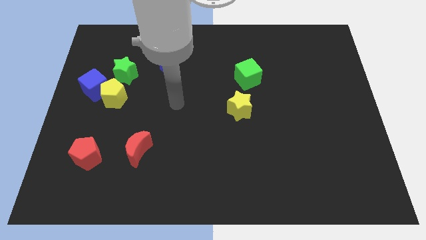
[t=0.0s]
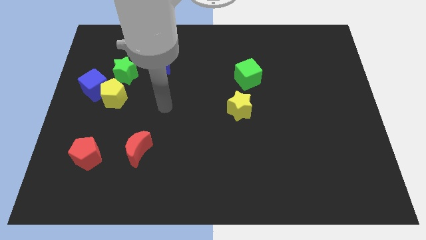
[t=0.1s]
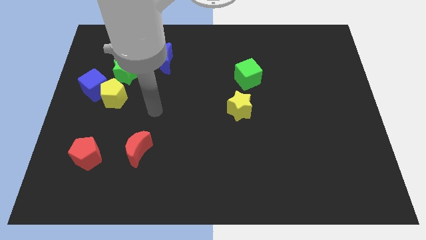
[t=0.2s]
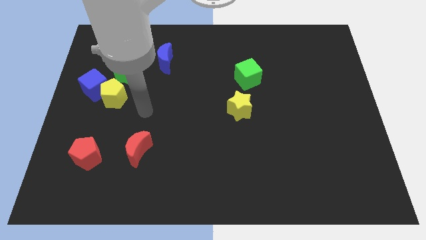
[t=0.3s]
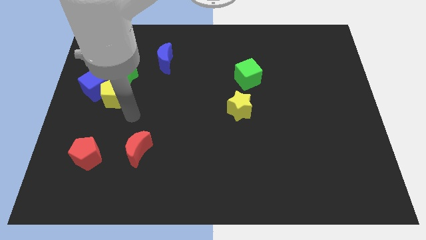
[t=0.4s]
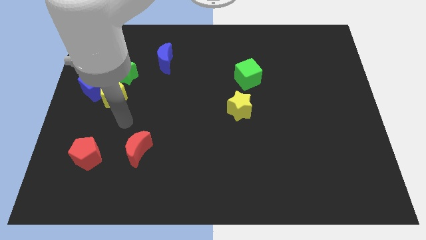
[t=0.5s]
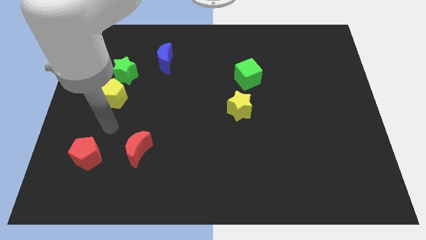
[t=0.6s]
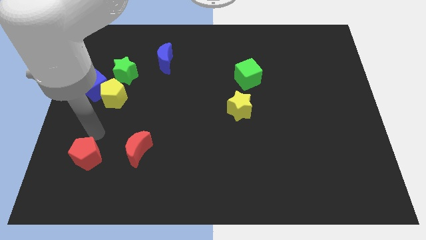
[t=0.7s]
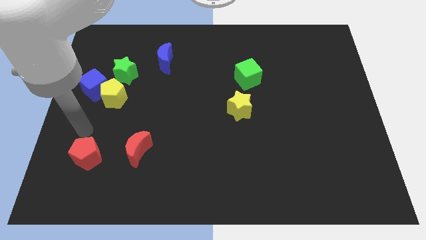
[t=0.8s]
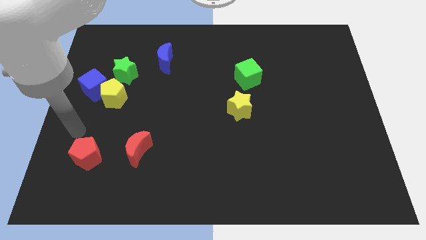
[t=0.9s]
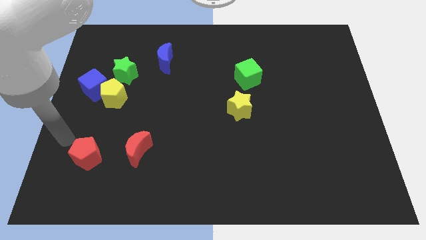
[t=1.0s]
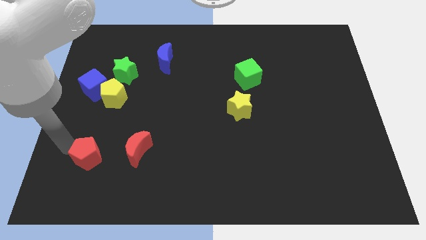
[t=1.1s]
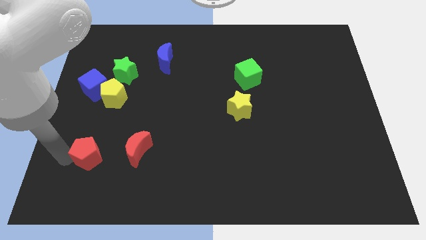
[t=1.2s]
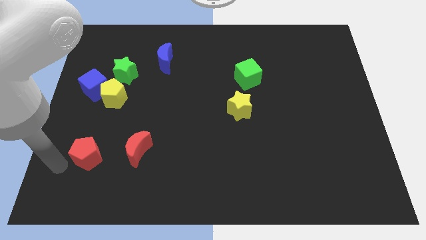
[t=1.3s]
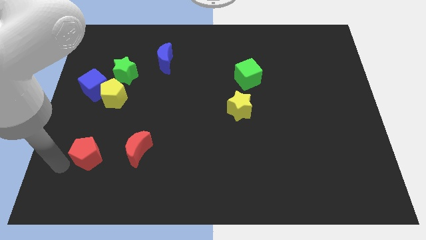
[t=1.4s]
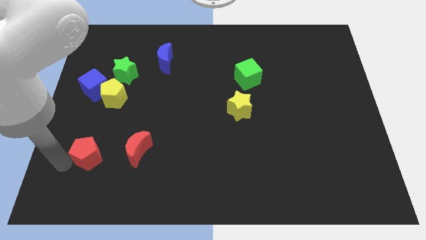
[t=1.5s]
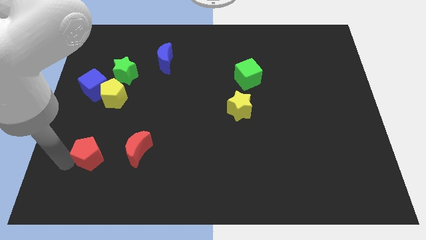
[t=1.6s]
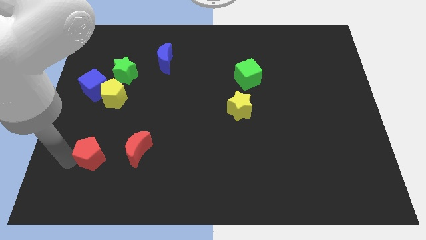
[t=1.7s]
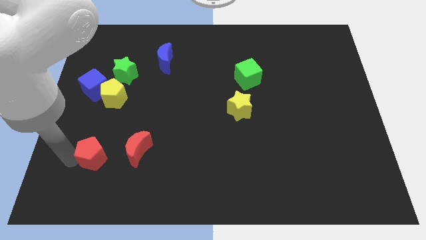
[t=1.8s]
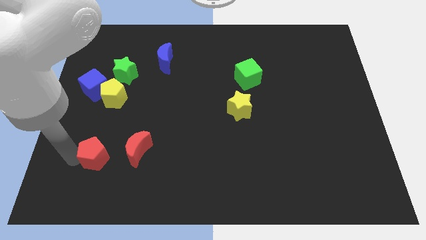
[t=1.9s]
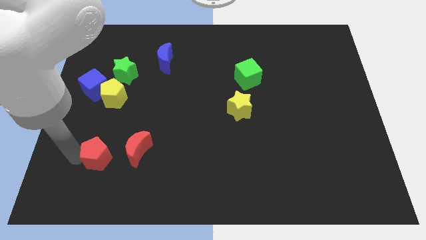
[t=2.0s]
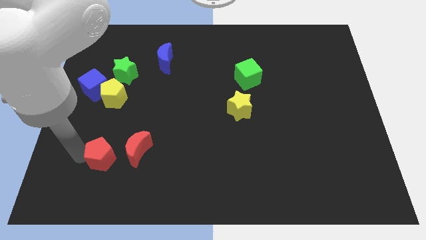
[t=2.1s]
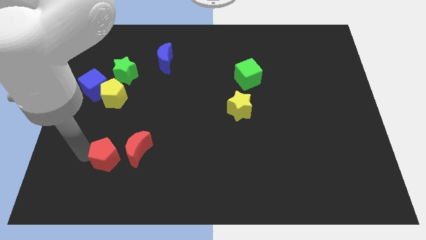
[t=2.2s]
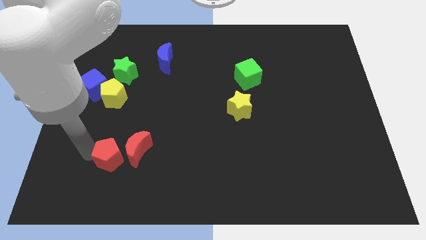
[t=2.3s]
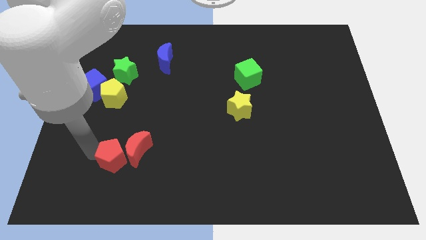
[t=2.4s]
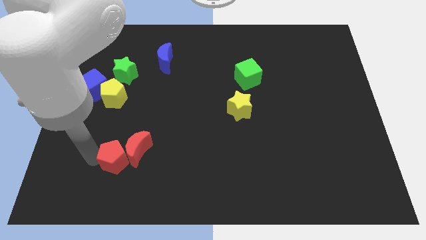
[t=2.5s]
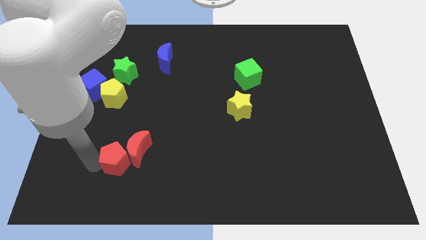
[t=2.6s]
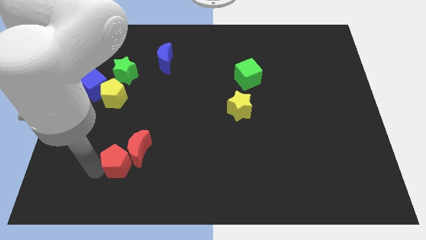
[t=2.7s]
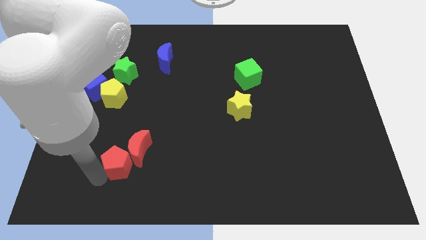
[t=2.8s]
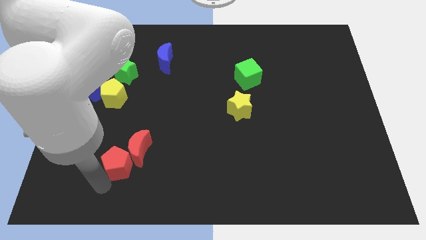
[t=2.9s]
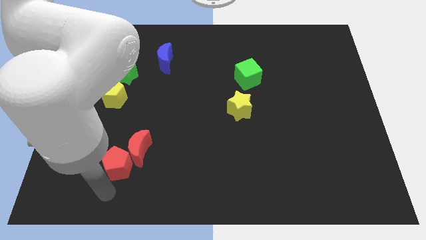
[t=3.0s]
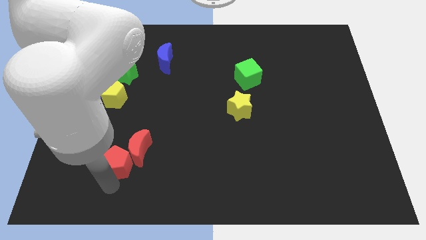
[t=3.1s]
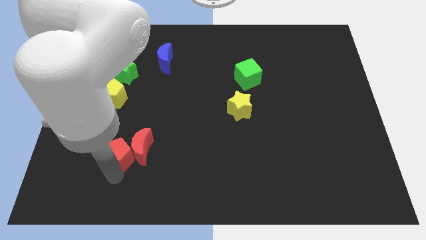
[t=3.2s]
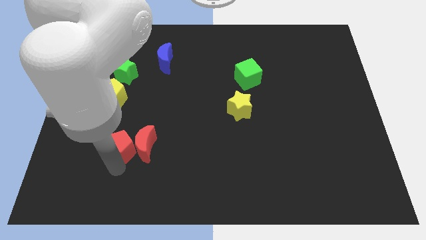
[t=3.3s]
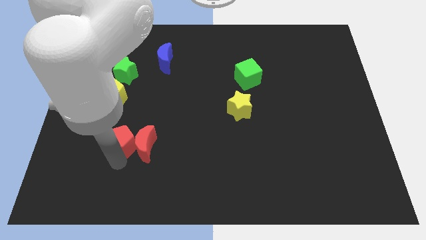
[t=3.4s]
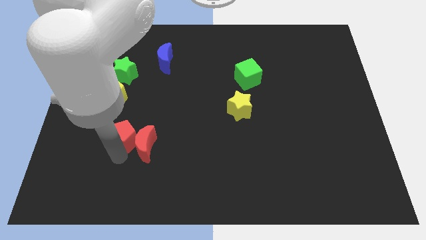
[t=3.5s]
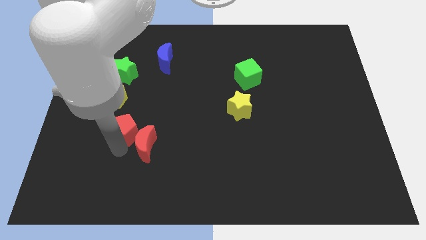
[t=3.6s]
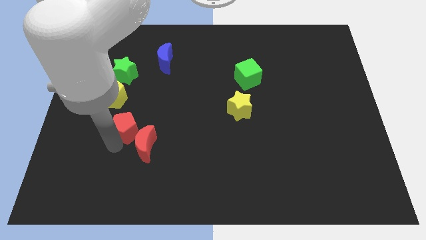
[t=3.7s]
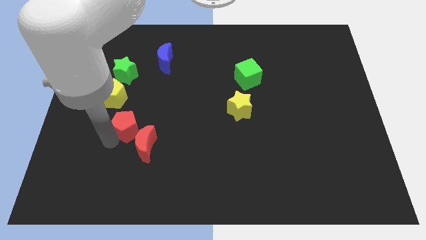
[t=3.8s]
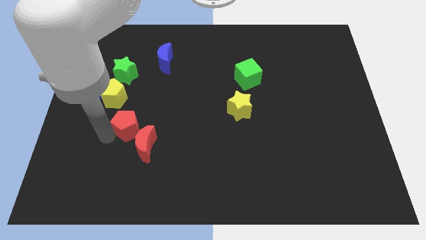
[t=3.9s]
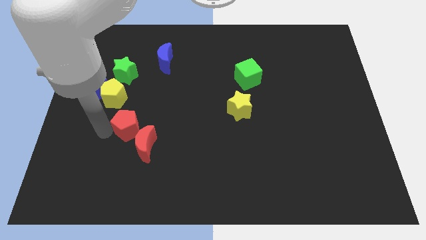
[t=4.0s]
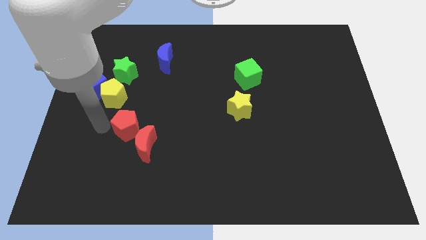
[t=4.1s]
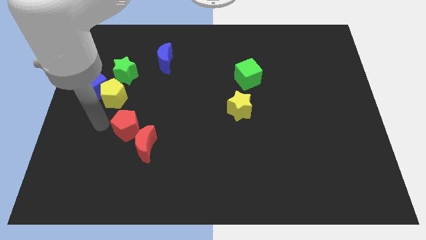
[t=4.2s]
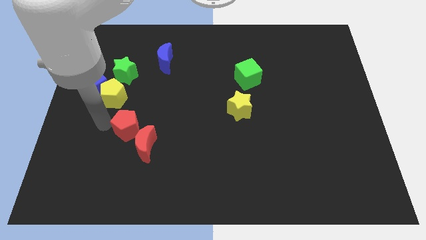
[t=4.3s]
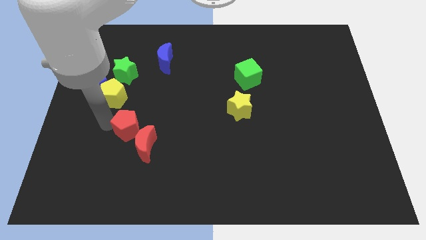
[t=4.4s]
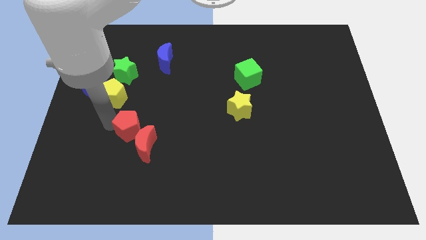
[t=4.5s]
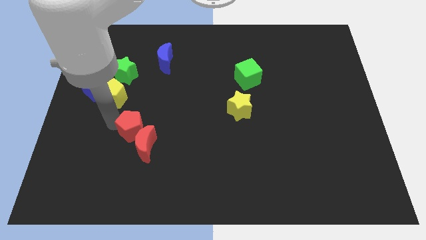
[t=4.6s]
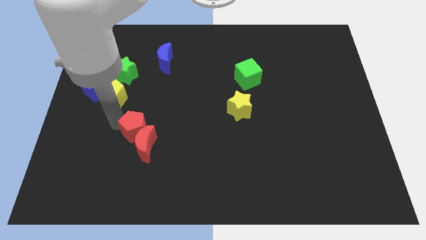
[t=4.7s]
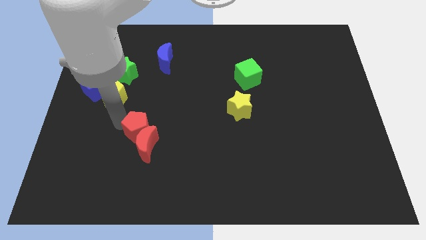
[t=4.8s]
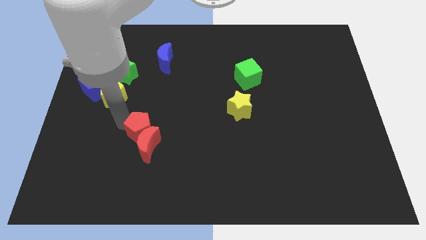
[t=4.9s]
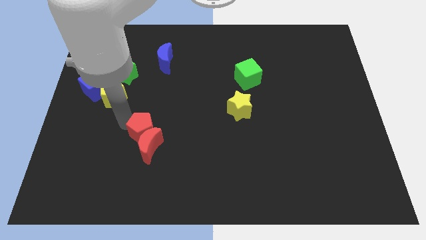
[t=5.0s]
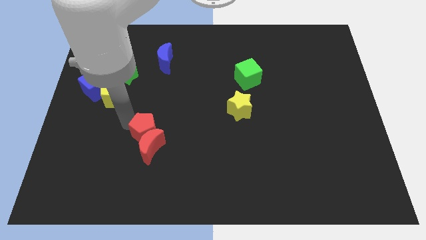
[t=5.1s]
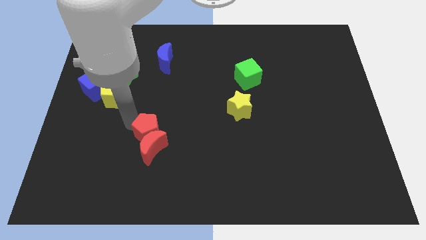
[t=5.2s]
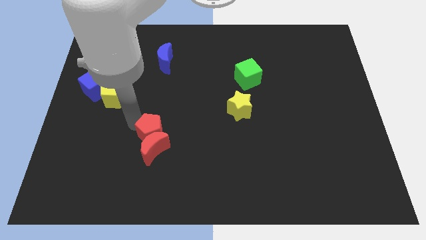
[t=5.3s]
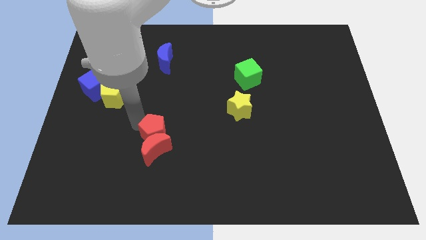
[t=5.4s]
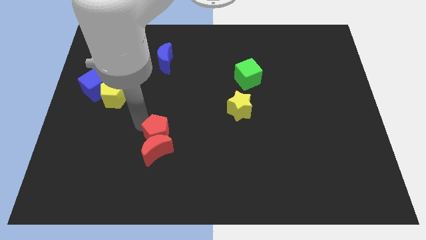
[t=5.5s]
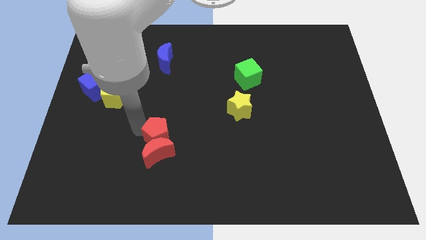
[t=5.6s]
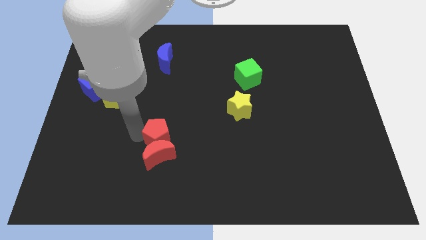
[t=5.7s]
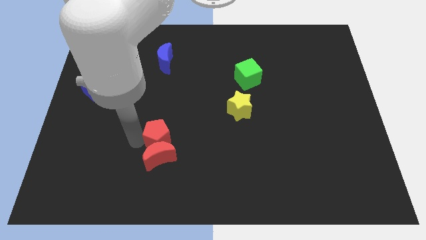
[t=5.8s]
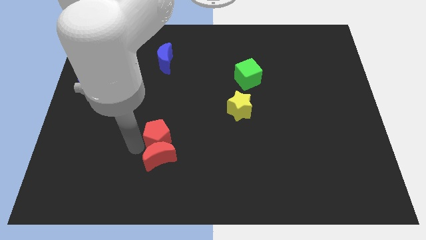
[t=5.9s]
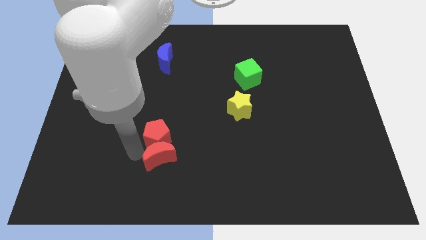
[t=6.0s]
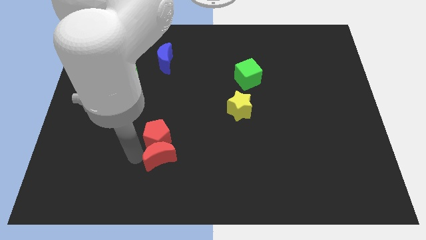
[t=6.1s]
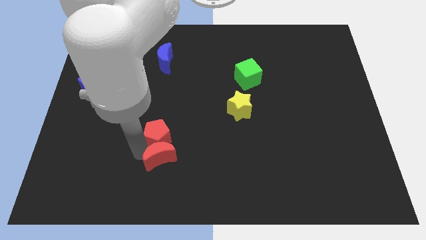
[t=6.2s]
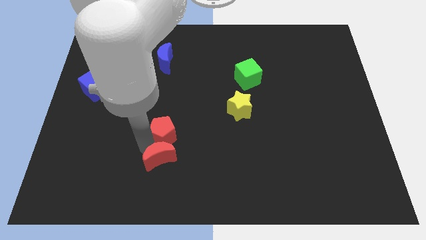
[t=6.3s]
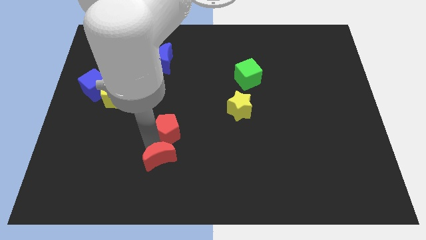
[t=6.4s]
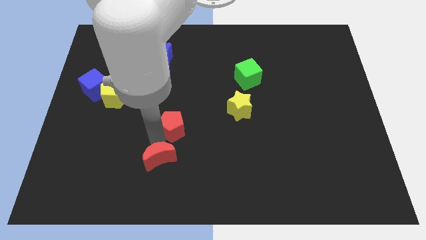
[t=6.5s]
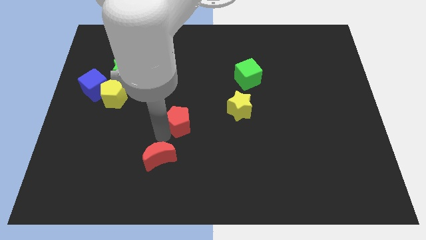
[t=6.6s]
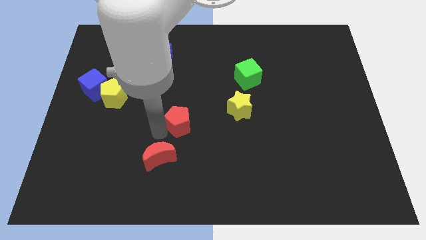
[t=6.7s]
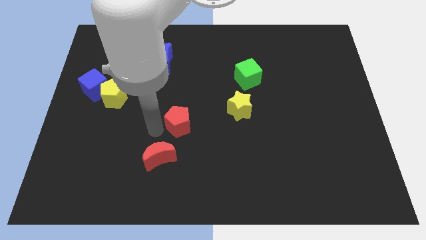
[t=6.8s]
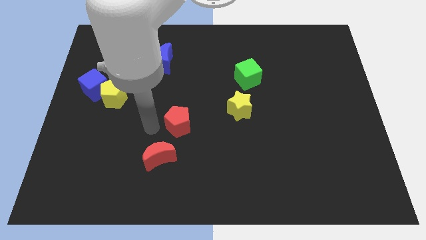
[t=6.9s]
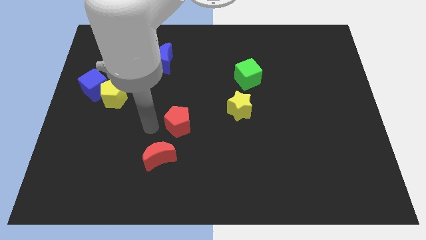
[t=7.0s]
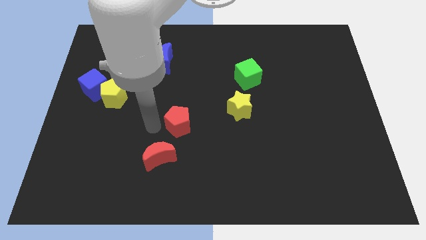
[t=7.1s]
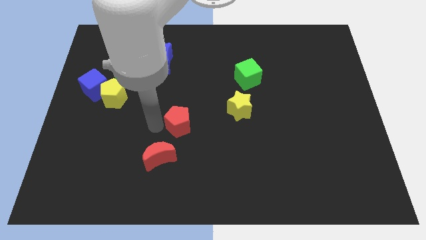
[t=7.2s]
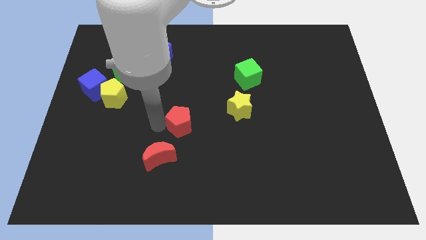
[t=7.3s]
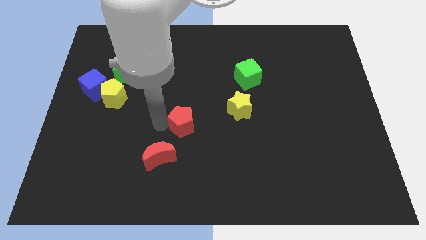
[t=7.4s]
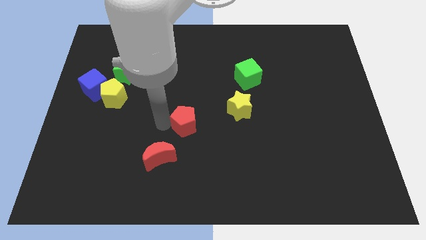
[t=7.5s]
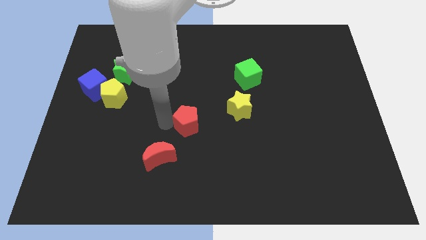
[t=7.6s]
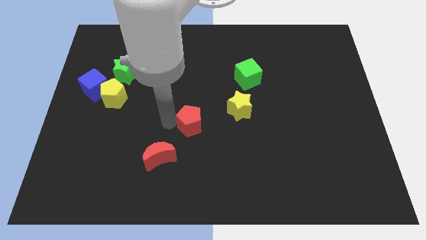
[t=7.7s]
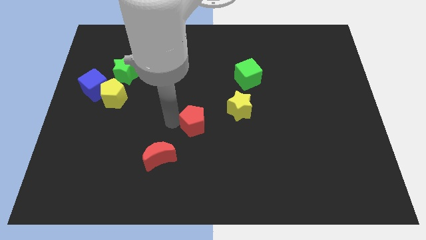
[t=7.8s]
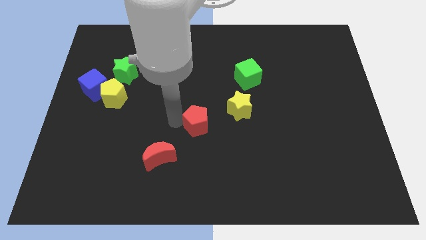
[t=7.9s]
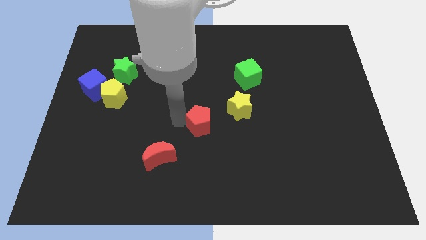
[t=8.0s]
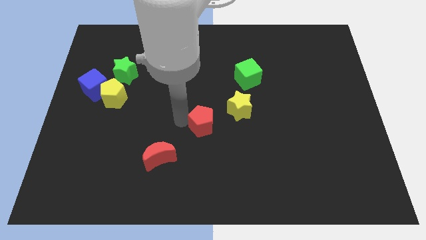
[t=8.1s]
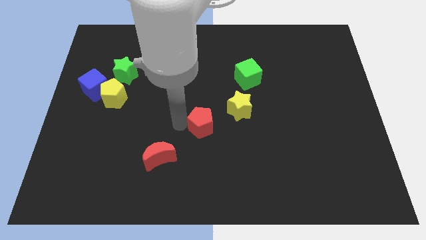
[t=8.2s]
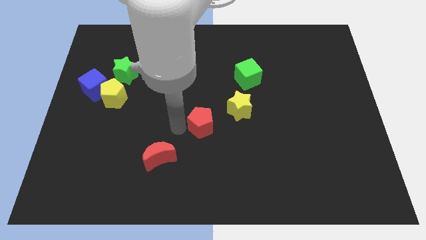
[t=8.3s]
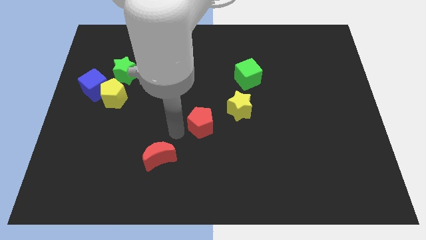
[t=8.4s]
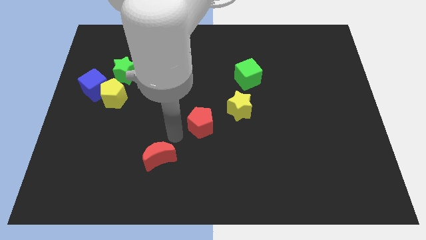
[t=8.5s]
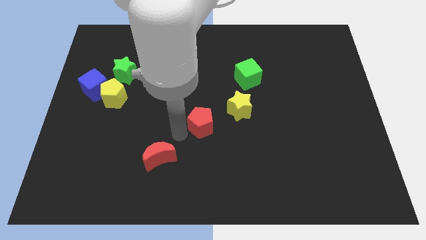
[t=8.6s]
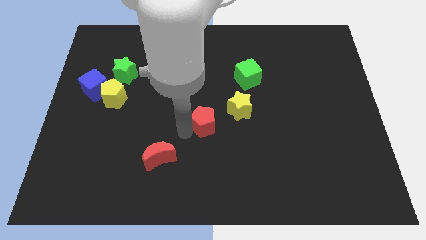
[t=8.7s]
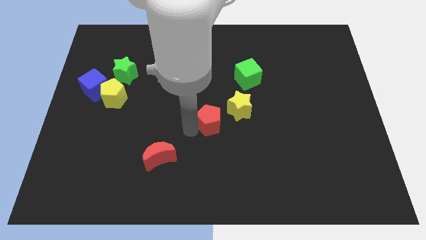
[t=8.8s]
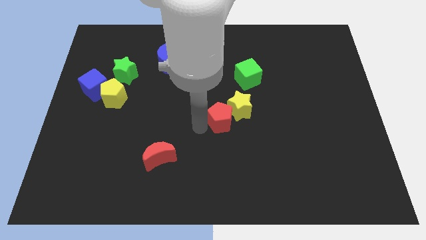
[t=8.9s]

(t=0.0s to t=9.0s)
push the red pentagon next to the yellow star
